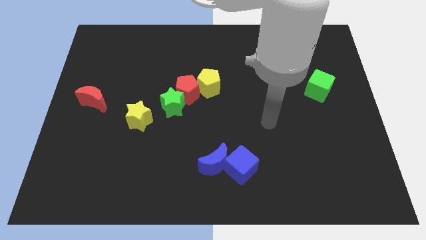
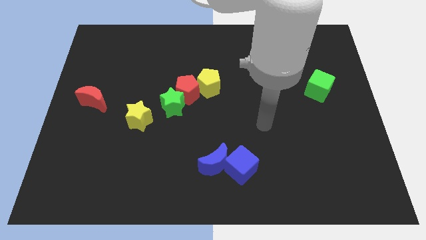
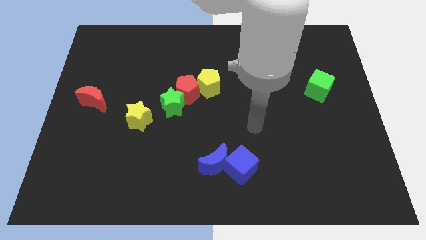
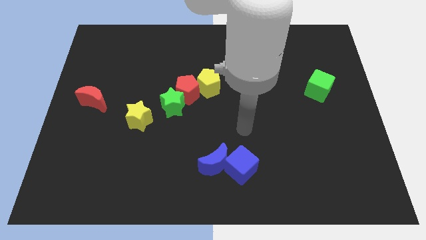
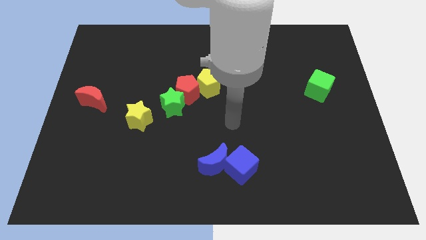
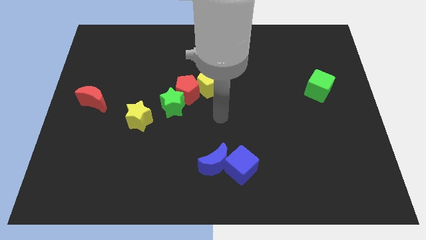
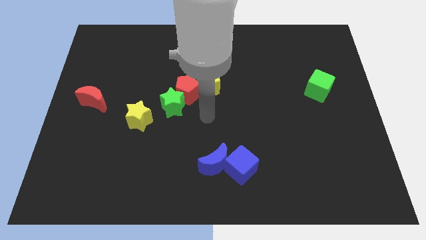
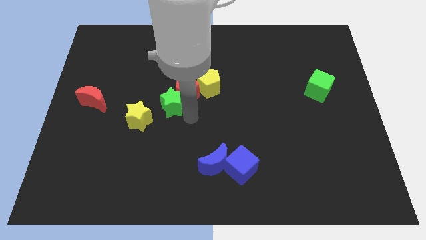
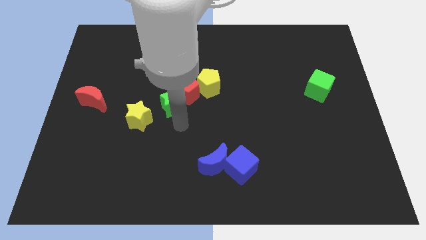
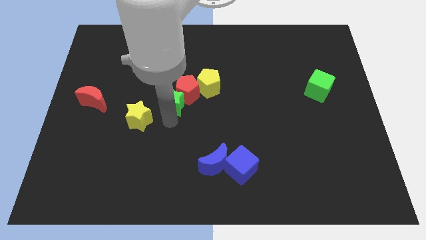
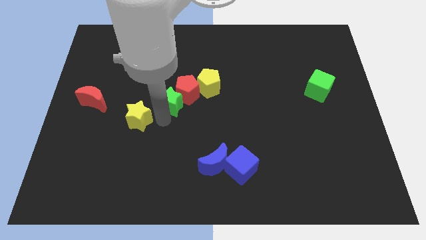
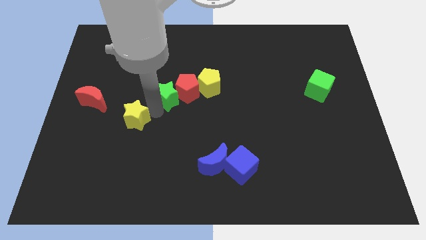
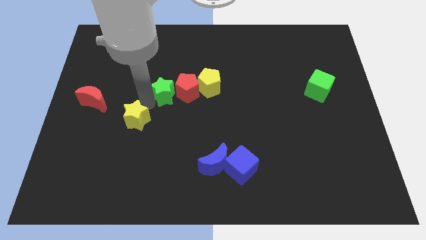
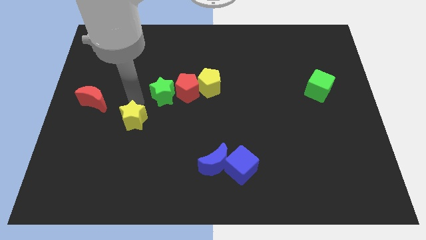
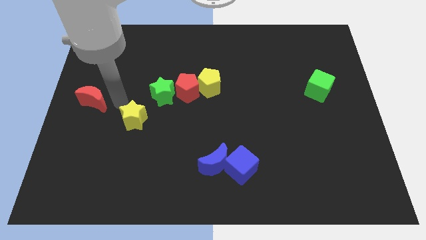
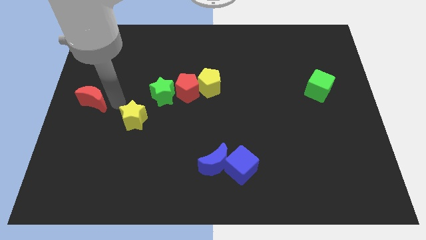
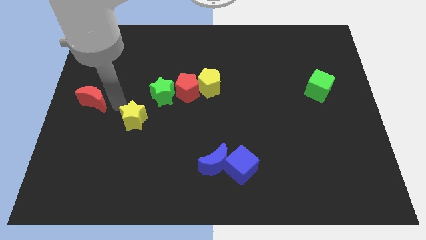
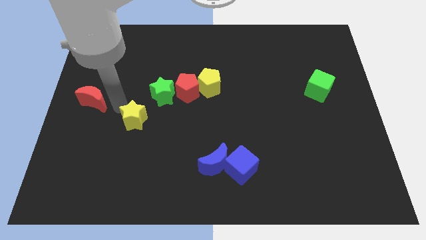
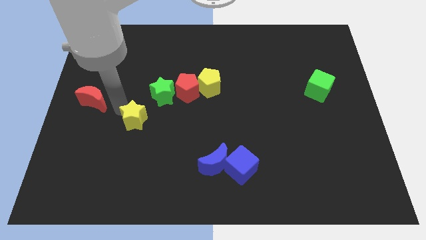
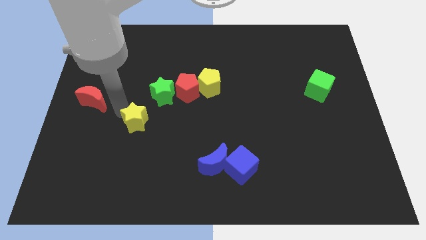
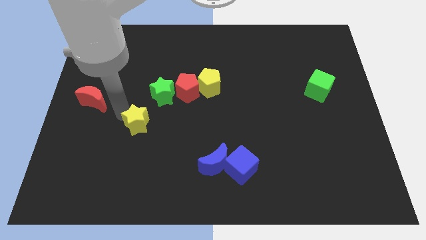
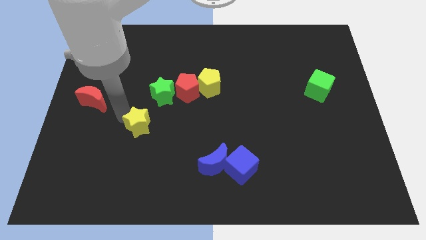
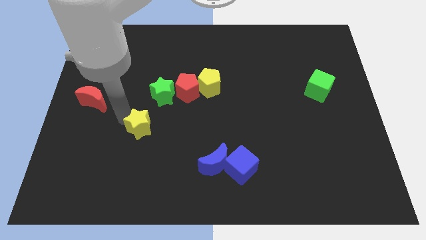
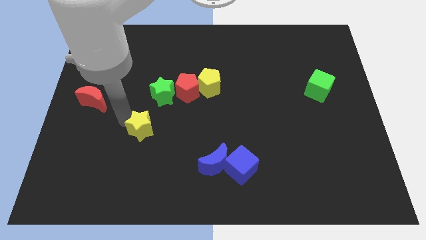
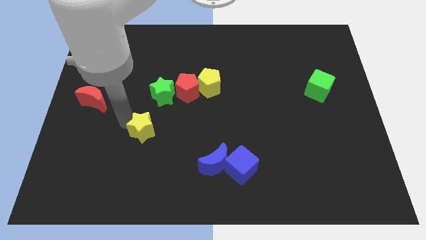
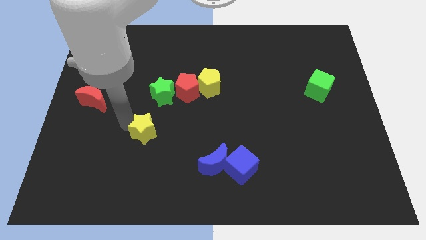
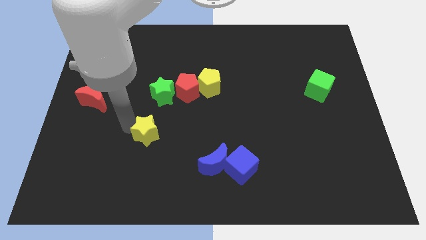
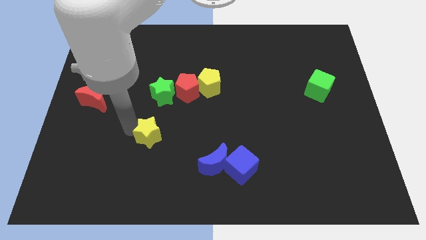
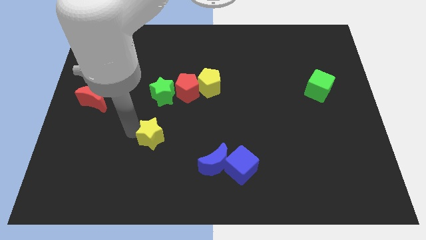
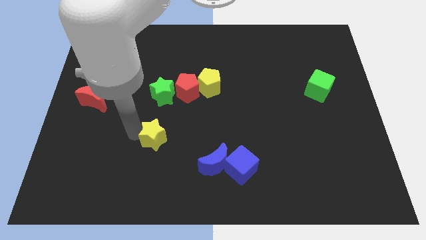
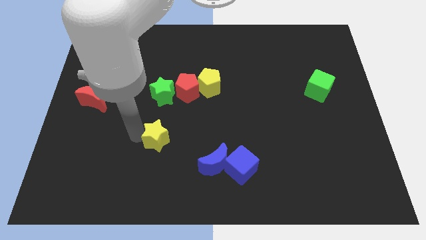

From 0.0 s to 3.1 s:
slightly move the yellow star diagonally downwards and right

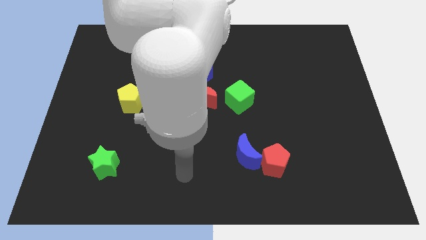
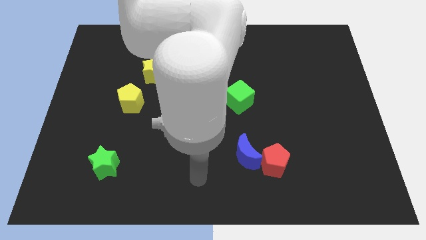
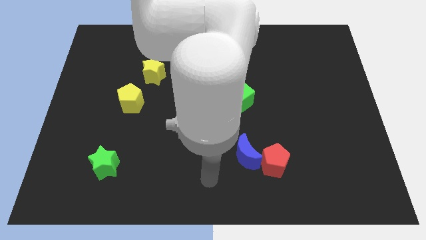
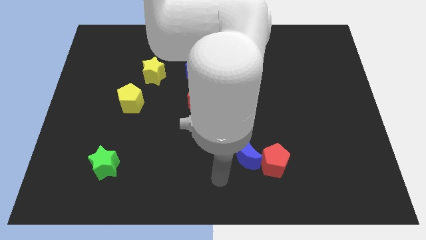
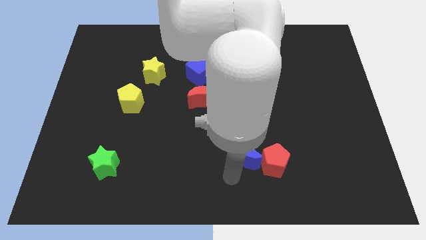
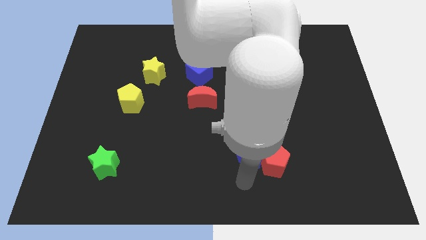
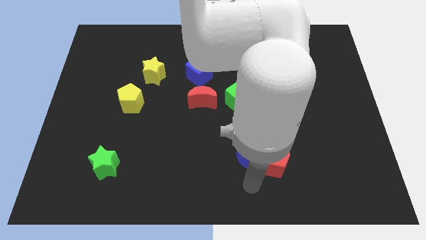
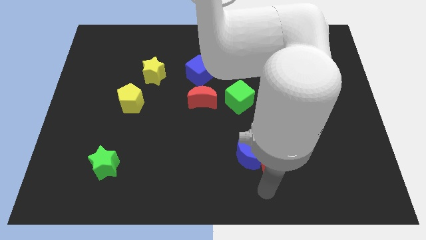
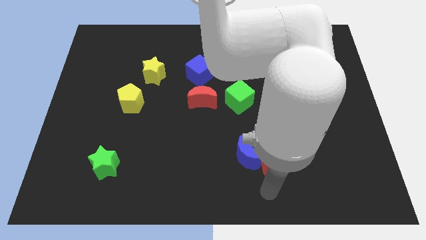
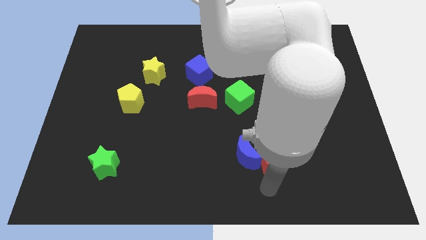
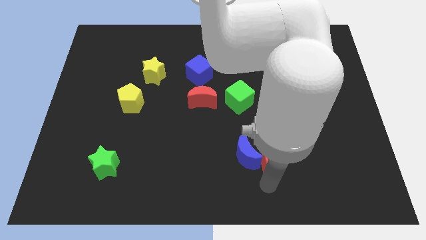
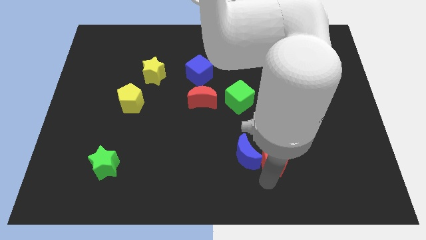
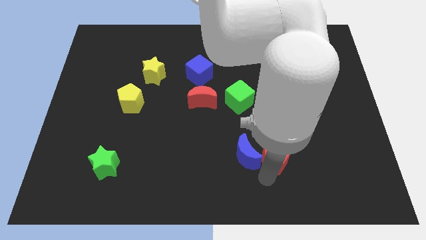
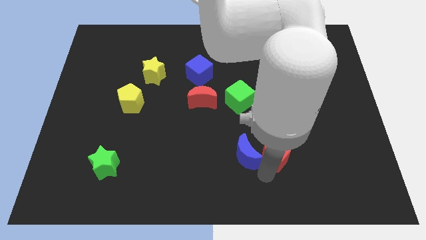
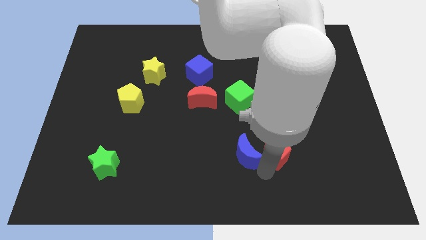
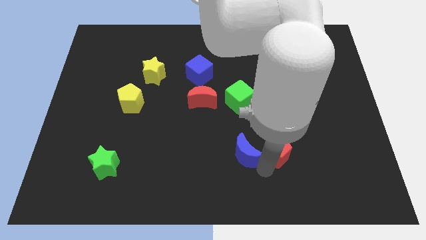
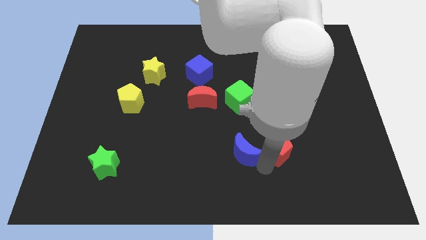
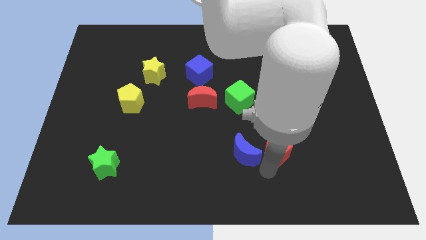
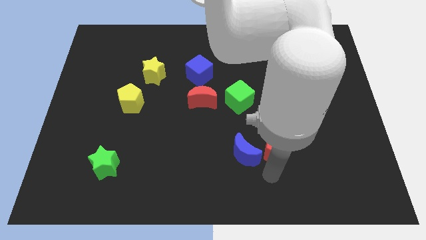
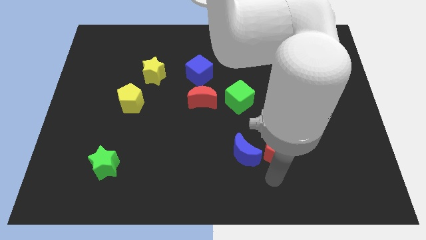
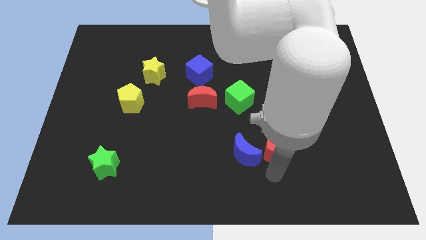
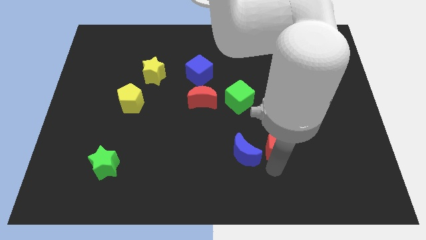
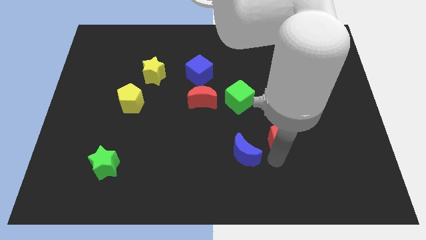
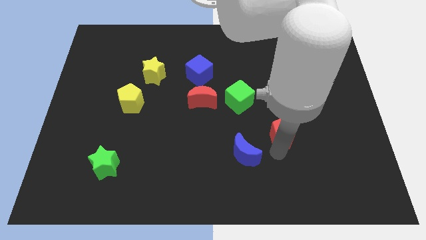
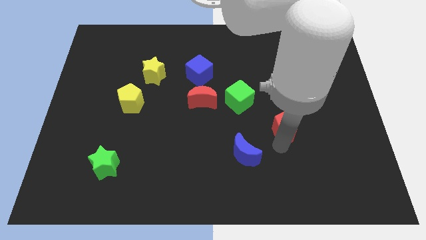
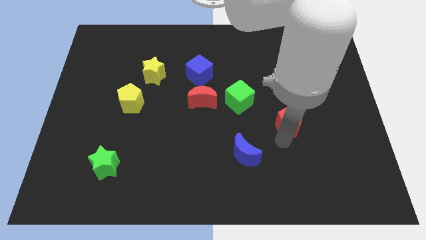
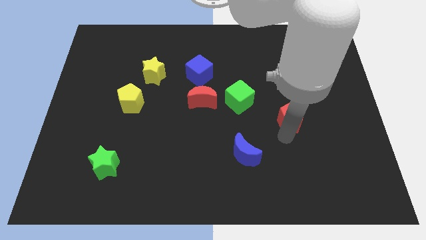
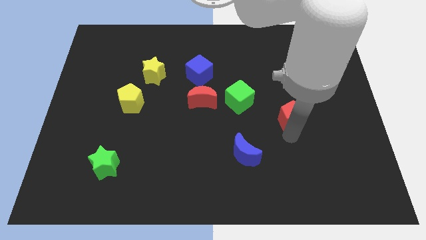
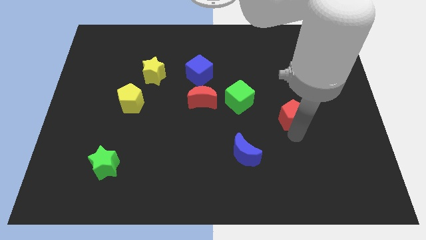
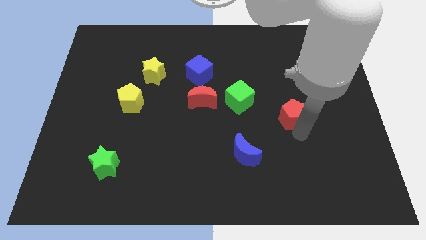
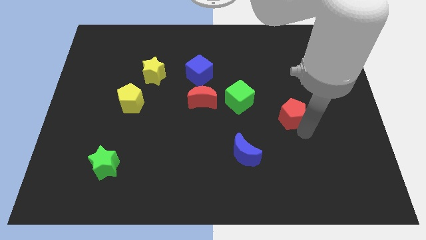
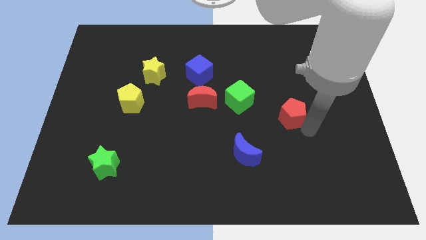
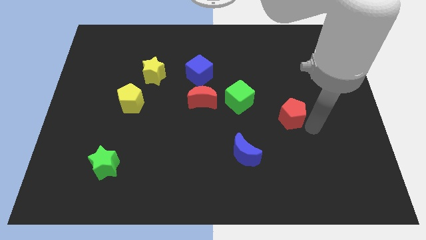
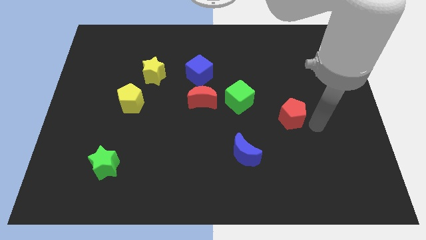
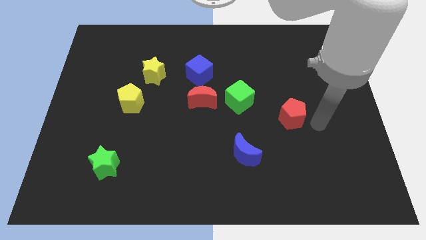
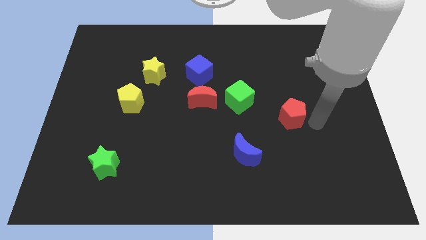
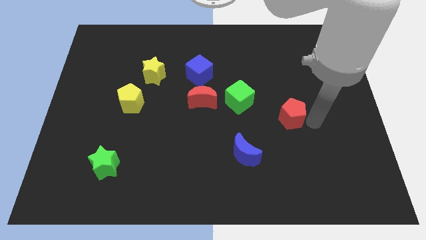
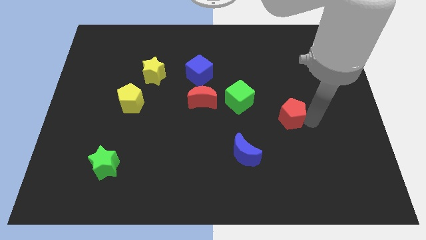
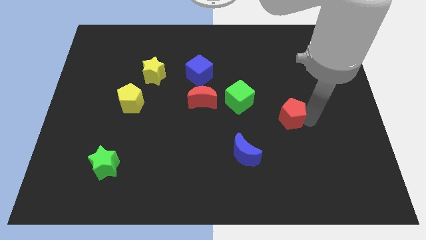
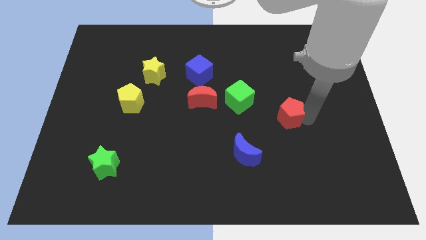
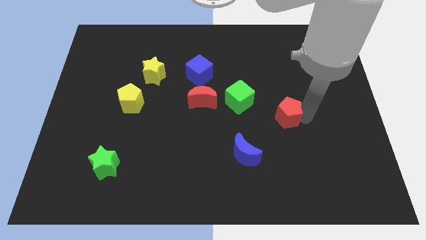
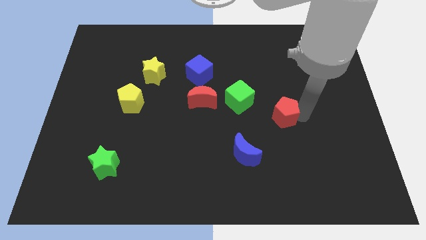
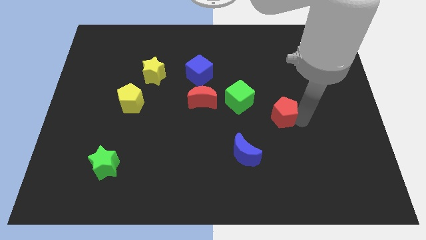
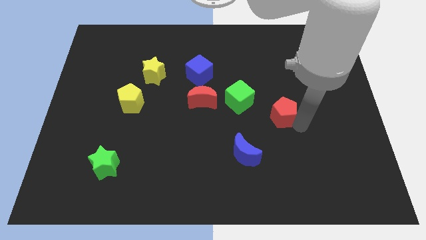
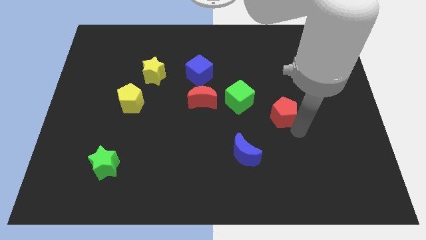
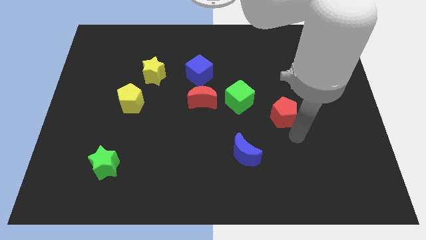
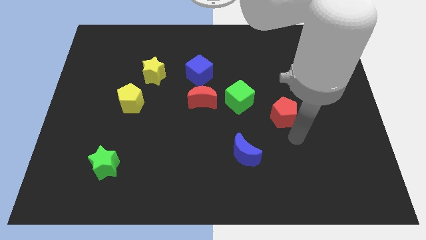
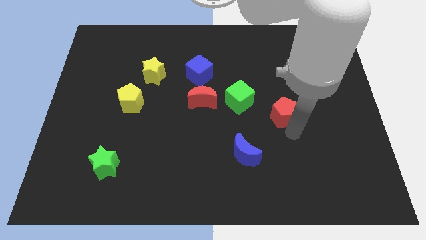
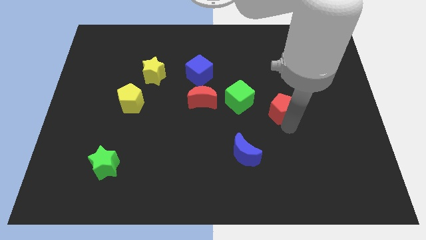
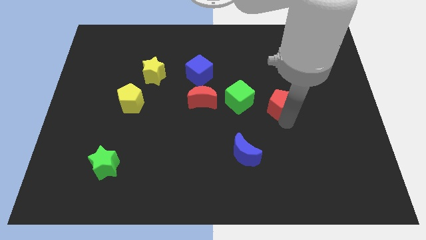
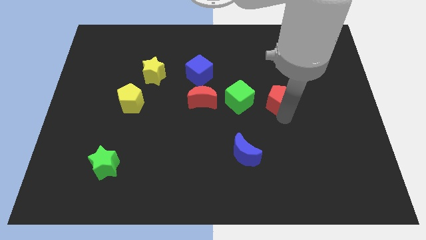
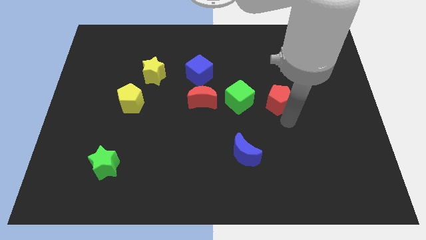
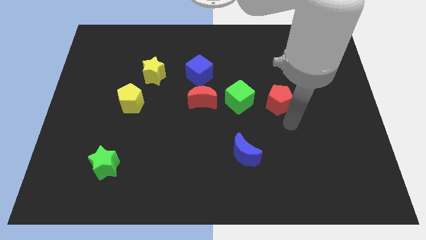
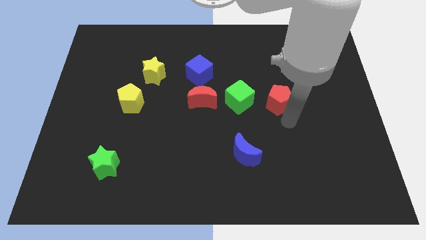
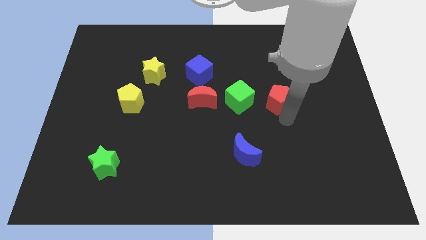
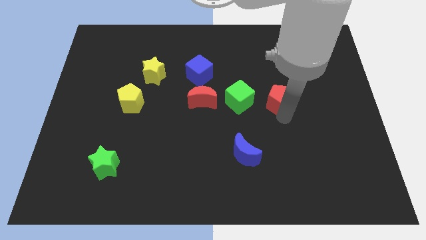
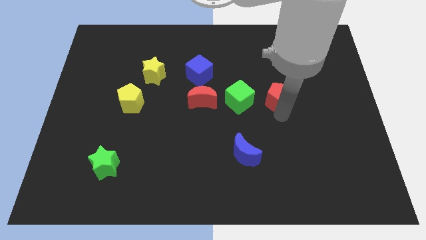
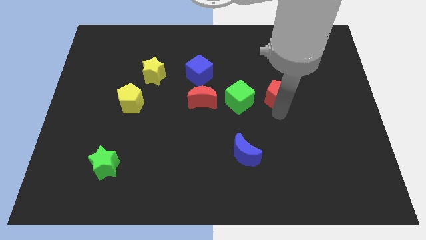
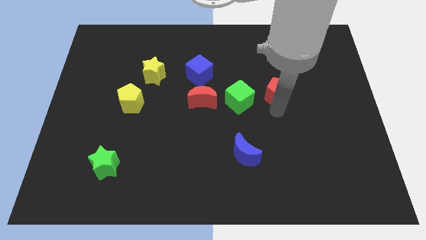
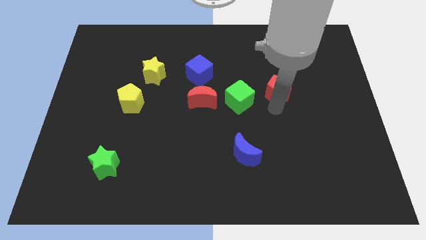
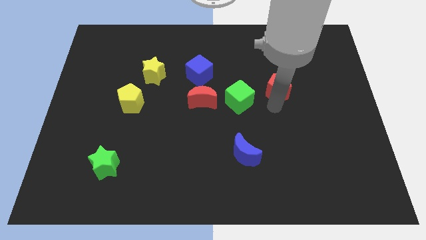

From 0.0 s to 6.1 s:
slide the red pentagon up
